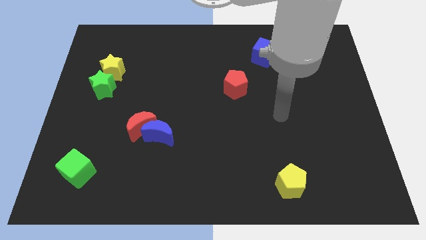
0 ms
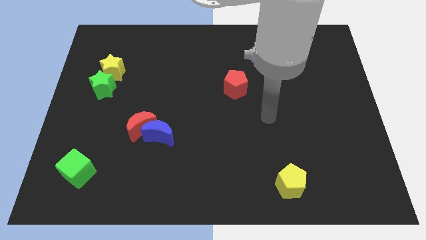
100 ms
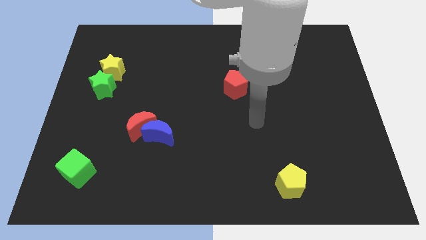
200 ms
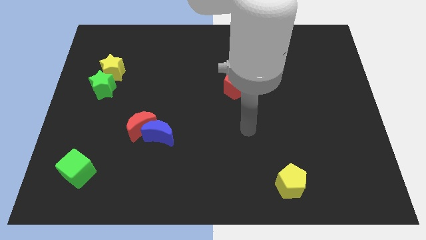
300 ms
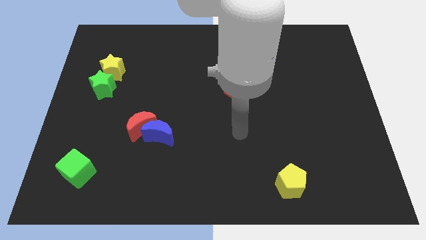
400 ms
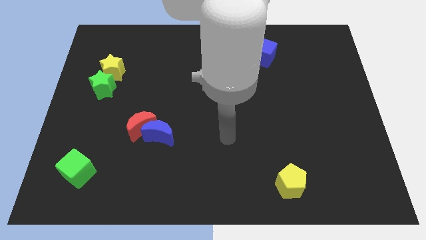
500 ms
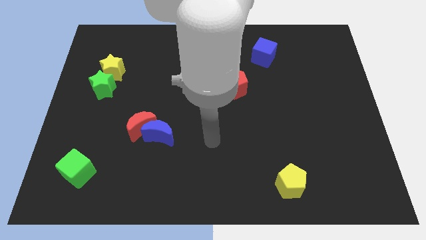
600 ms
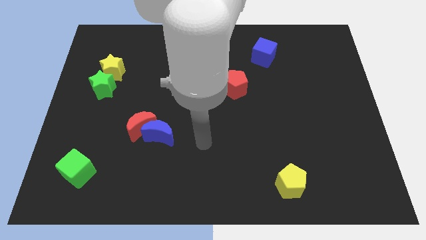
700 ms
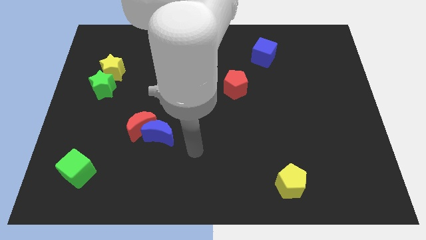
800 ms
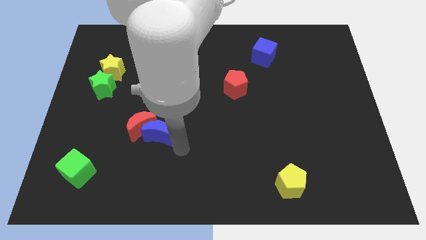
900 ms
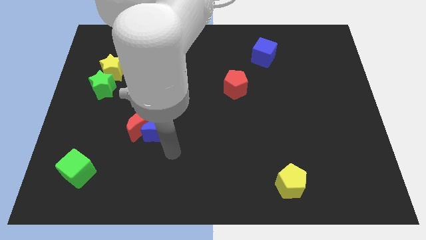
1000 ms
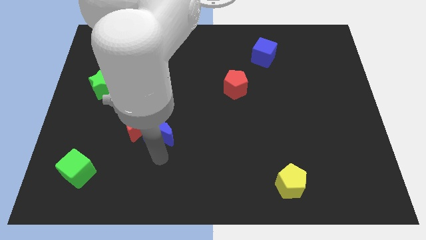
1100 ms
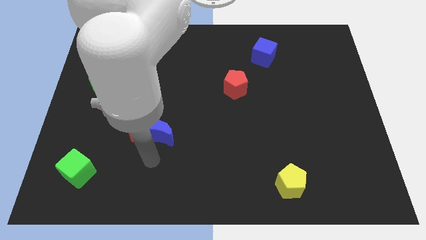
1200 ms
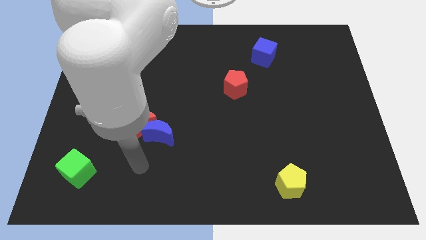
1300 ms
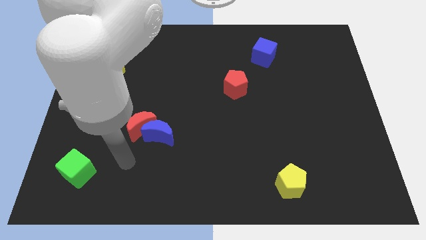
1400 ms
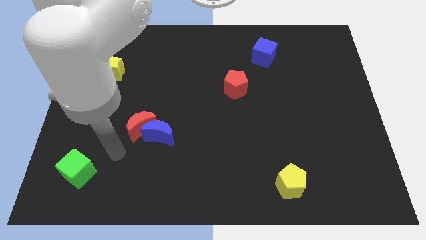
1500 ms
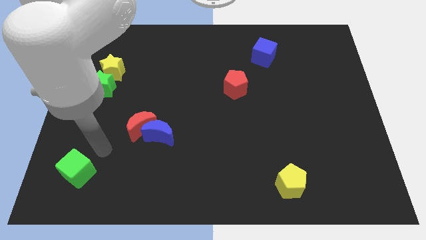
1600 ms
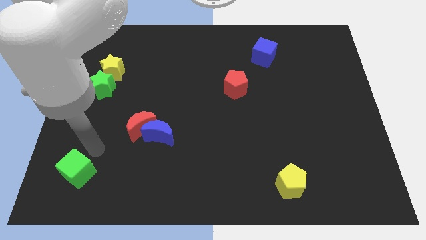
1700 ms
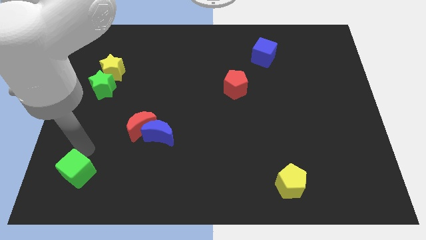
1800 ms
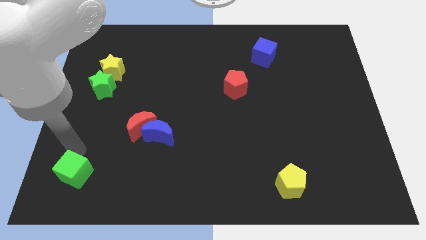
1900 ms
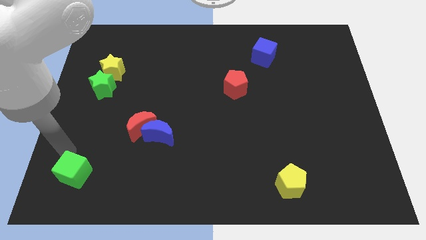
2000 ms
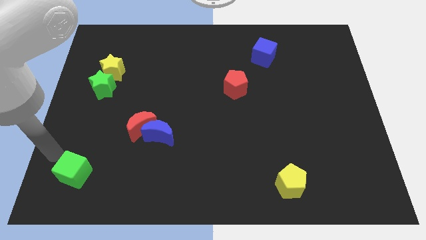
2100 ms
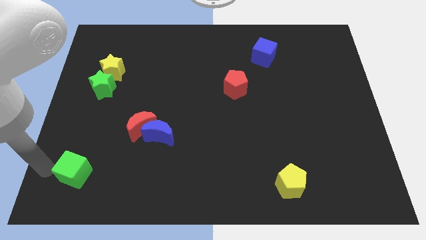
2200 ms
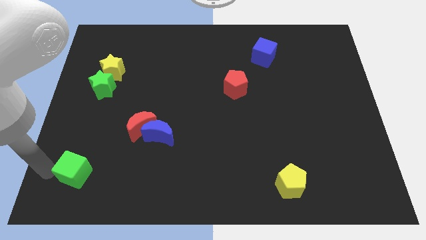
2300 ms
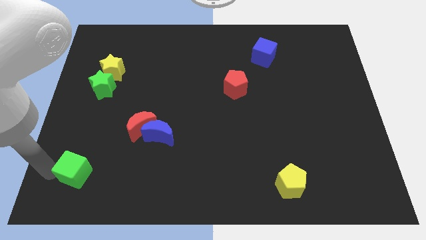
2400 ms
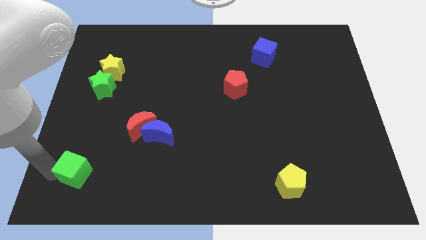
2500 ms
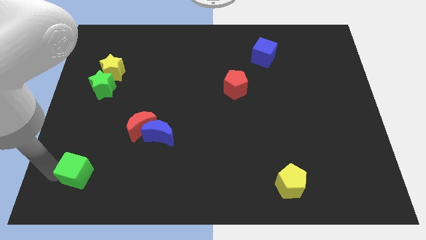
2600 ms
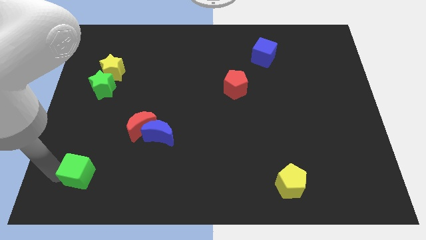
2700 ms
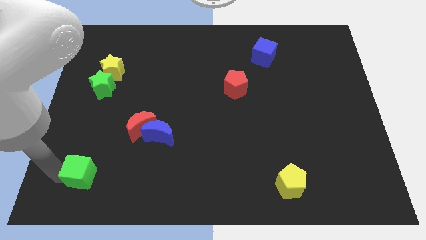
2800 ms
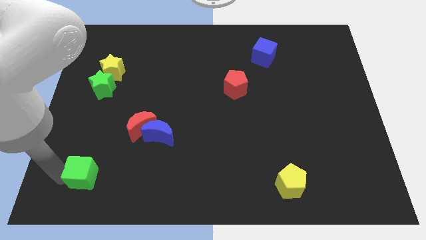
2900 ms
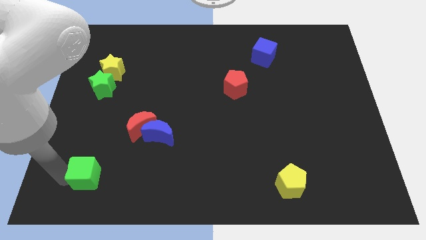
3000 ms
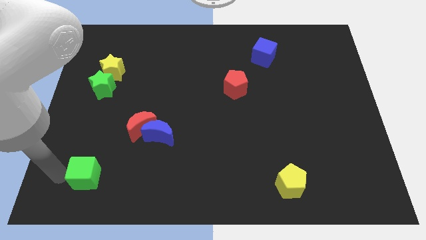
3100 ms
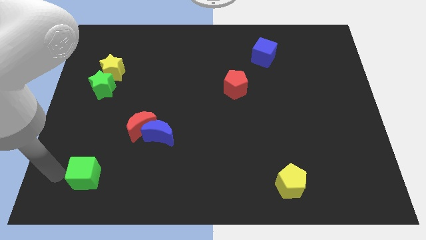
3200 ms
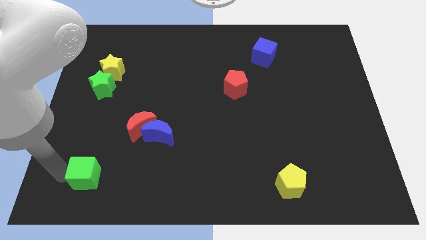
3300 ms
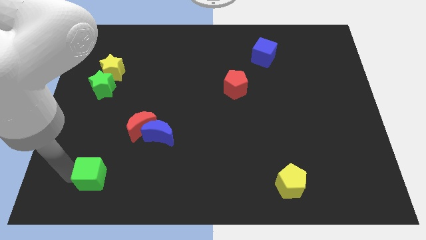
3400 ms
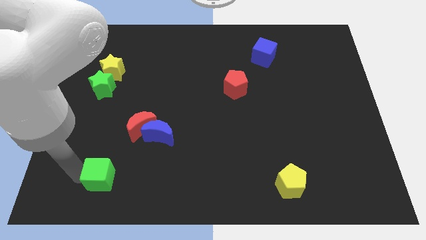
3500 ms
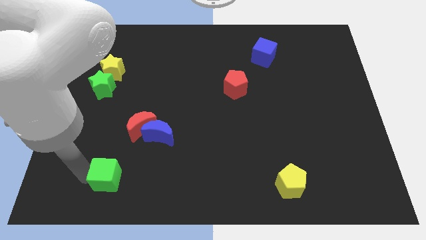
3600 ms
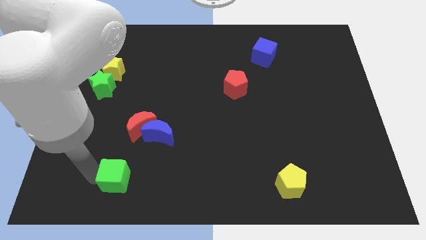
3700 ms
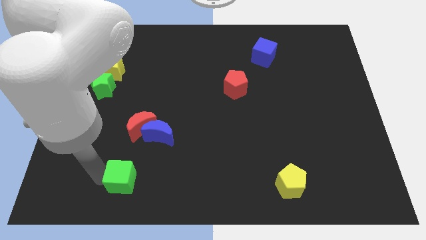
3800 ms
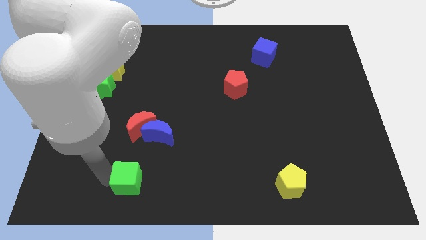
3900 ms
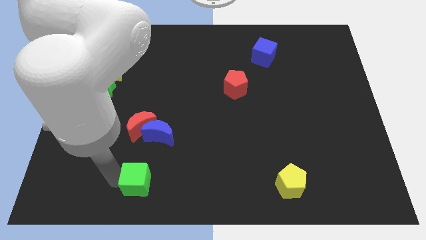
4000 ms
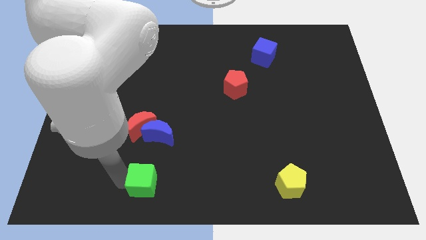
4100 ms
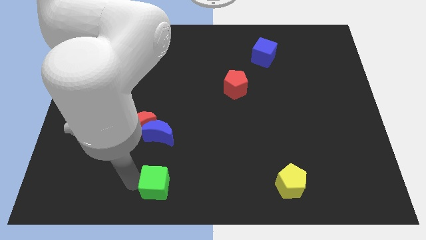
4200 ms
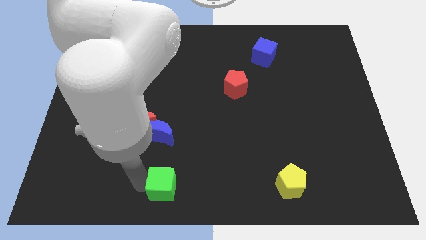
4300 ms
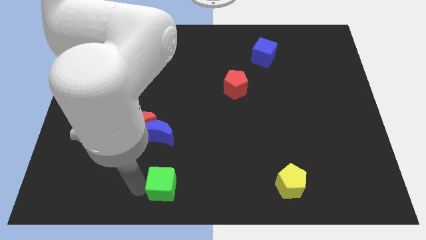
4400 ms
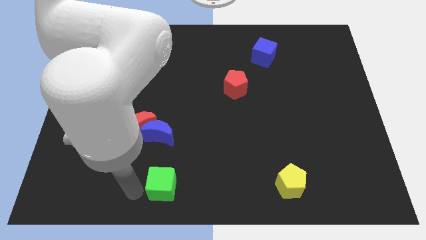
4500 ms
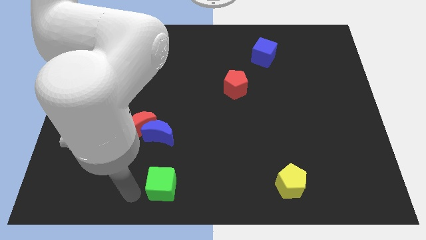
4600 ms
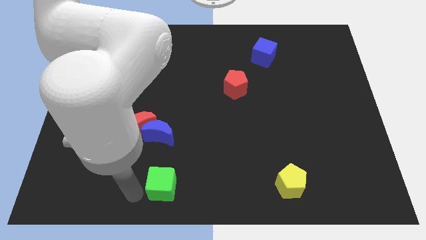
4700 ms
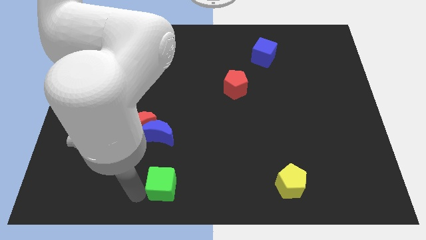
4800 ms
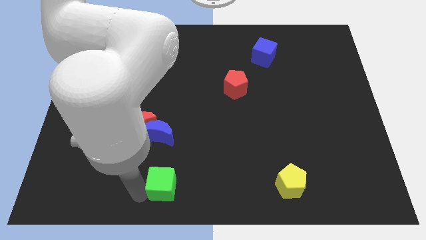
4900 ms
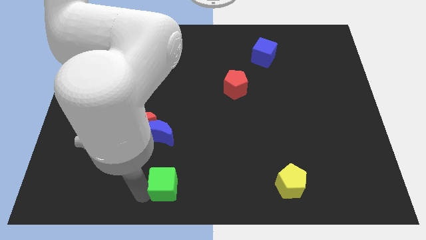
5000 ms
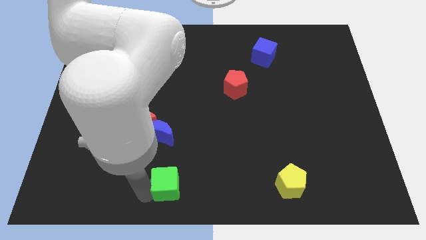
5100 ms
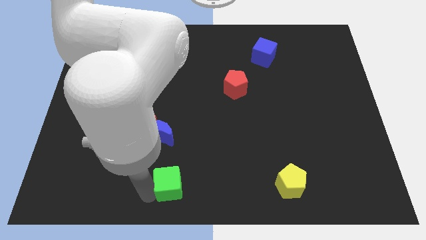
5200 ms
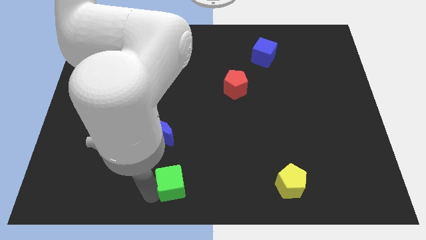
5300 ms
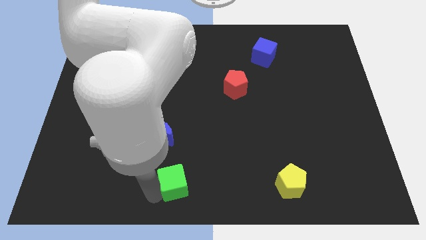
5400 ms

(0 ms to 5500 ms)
move the green cube right

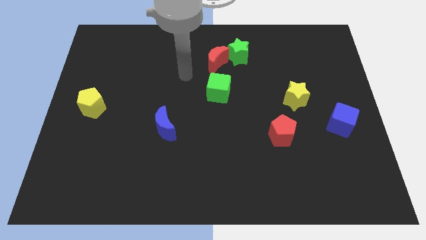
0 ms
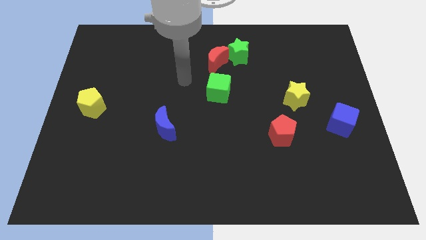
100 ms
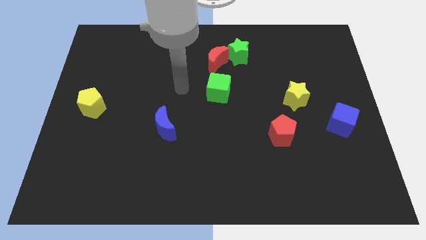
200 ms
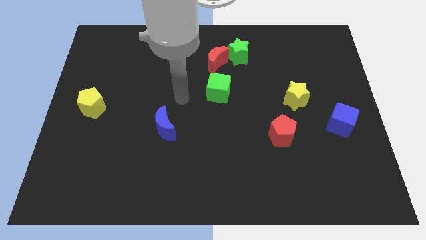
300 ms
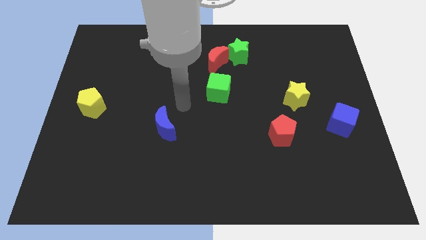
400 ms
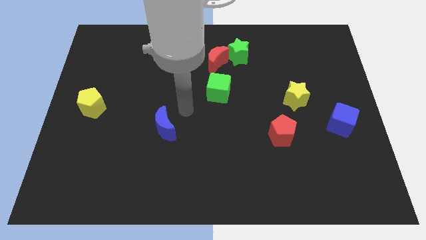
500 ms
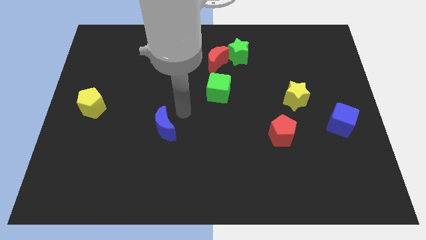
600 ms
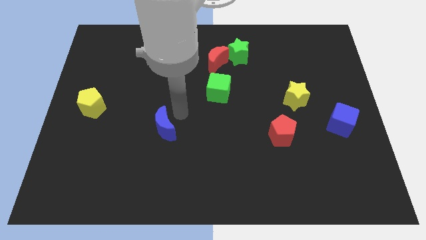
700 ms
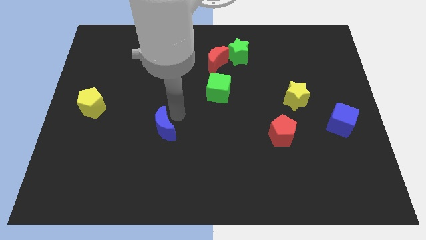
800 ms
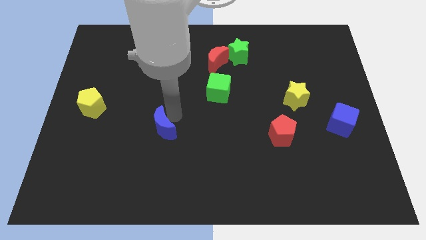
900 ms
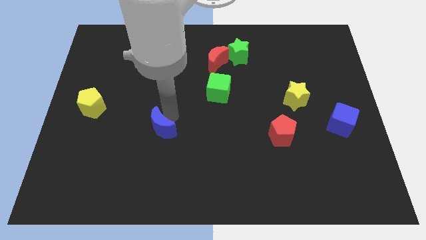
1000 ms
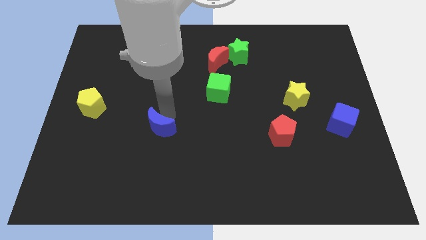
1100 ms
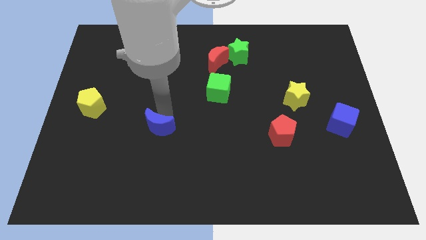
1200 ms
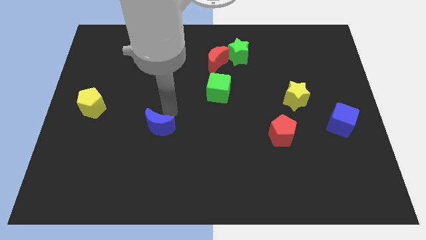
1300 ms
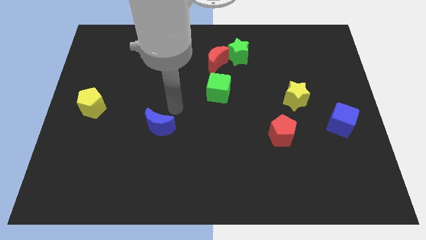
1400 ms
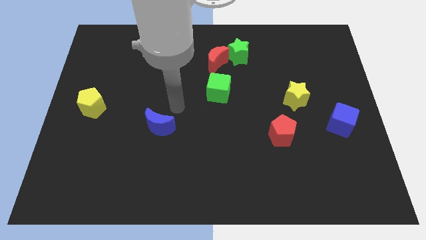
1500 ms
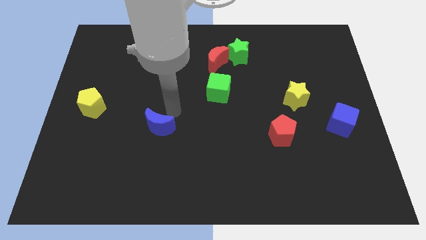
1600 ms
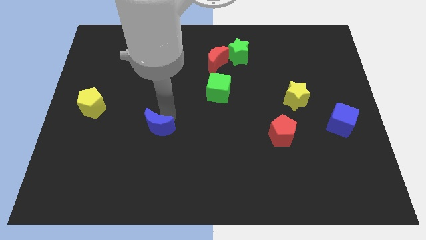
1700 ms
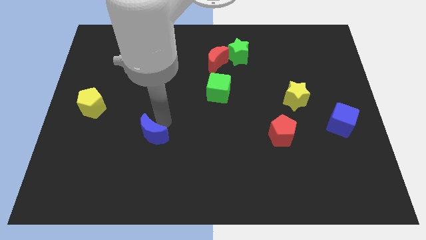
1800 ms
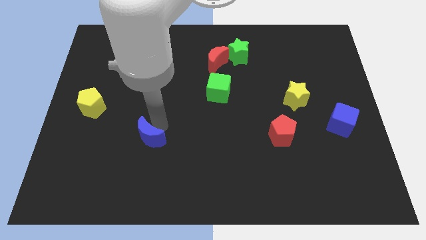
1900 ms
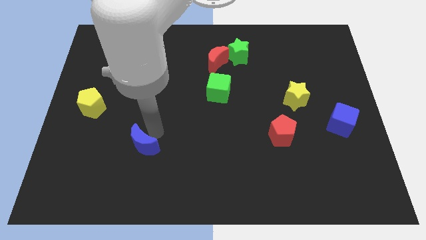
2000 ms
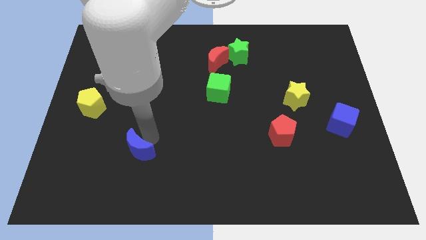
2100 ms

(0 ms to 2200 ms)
move the blue moon down and then to the left a little bit

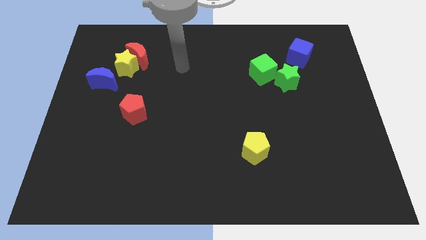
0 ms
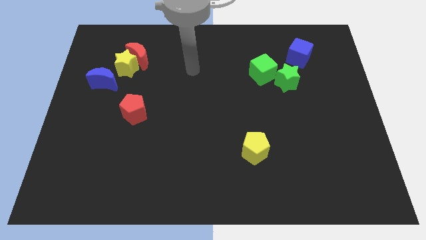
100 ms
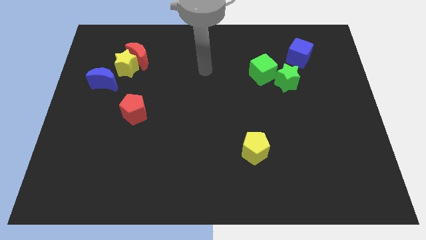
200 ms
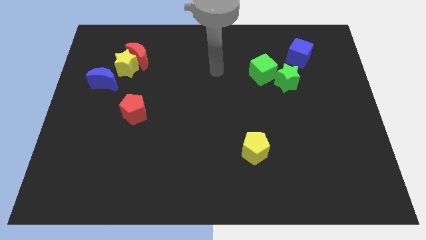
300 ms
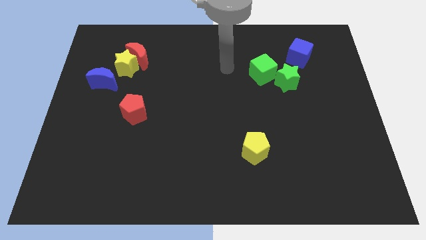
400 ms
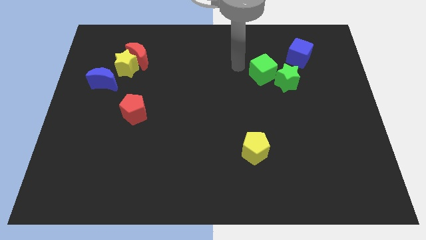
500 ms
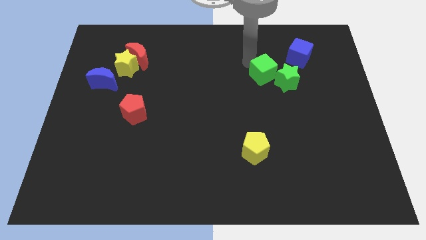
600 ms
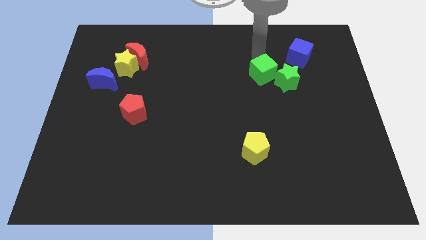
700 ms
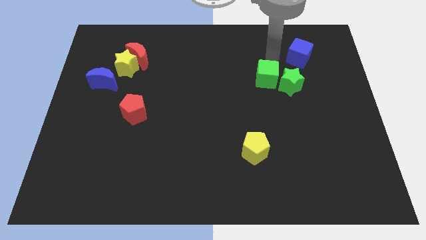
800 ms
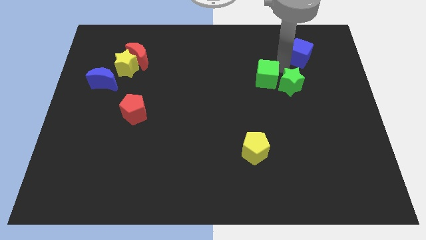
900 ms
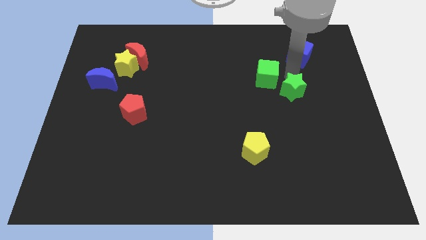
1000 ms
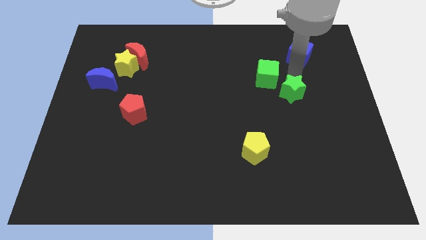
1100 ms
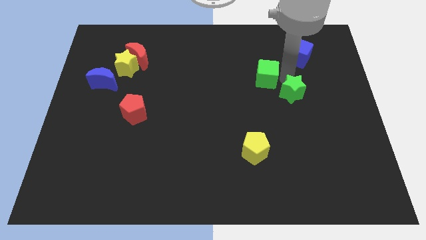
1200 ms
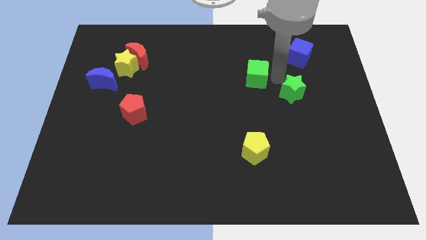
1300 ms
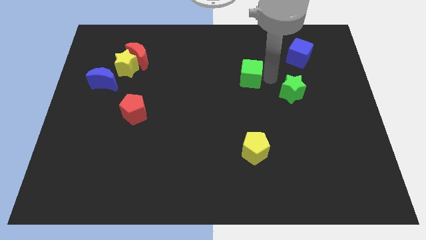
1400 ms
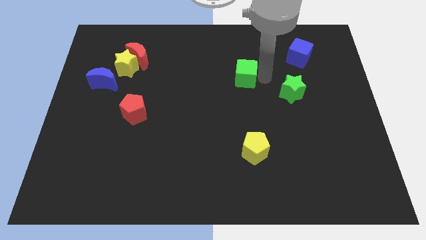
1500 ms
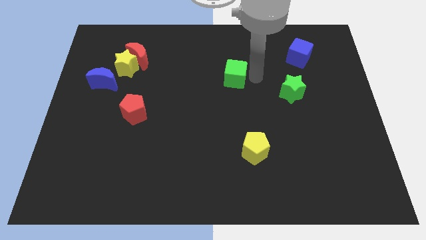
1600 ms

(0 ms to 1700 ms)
push the green cube somewhat to the left
